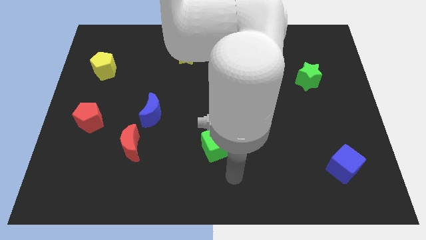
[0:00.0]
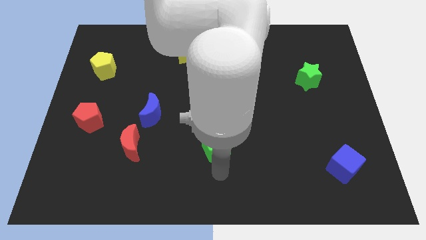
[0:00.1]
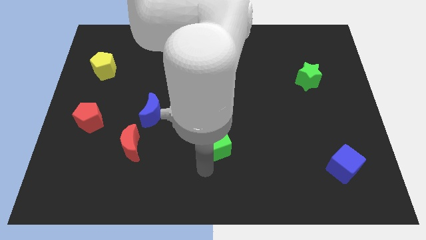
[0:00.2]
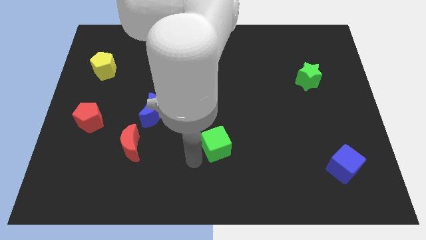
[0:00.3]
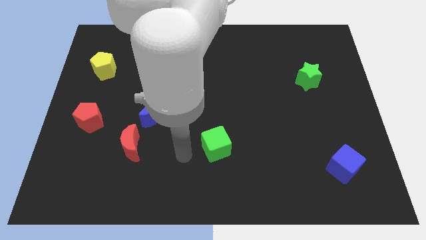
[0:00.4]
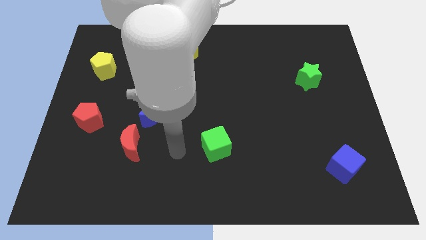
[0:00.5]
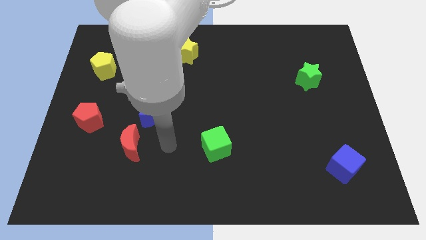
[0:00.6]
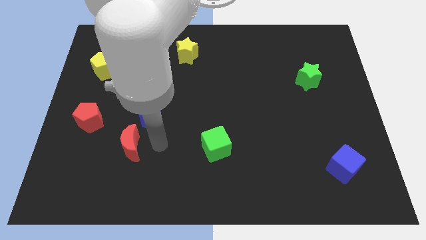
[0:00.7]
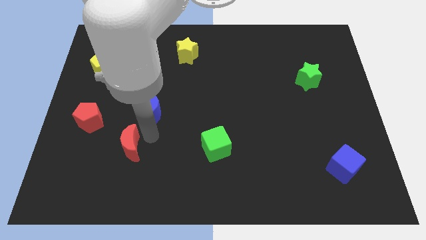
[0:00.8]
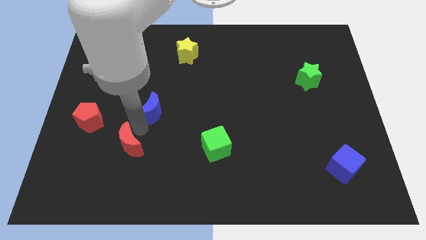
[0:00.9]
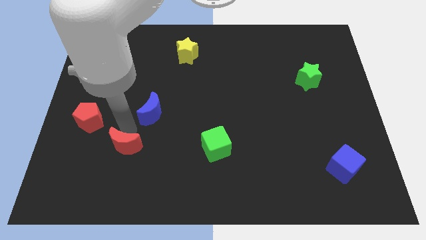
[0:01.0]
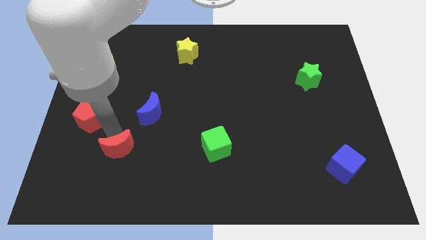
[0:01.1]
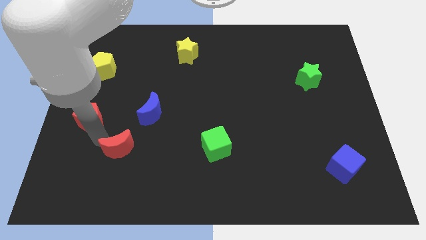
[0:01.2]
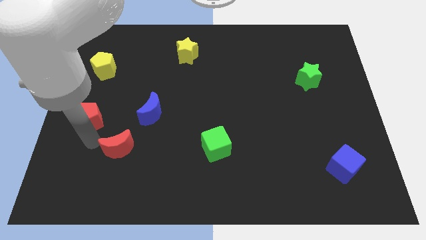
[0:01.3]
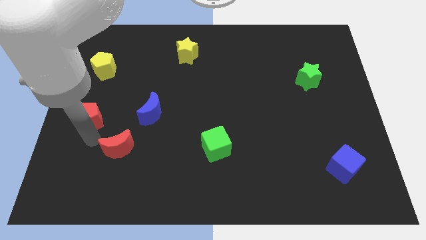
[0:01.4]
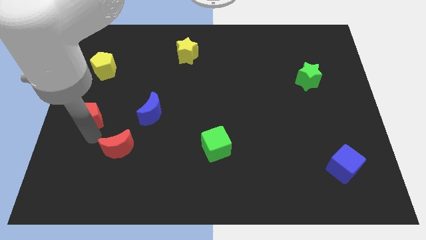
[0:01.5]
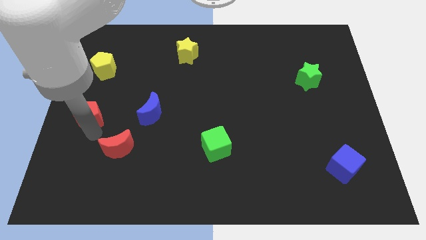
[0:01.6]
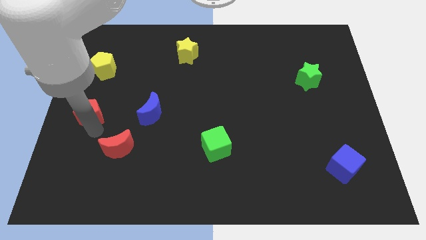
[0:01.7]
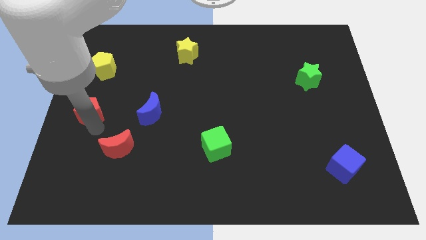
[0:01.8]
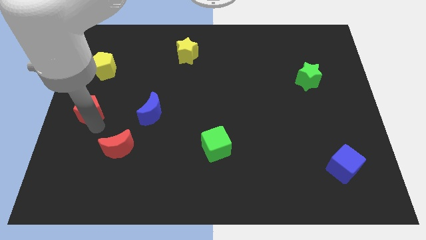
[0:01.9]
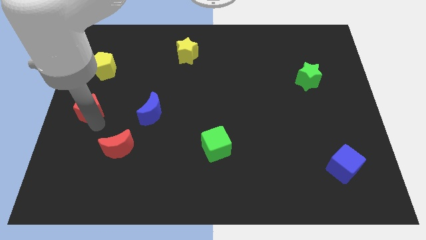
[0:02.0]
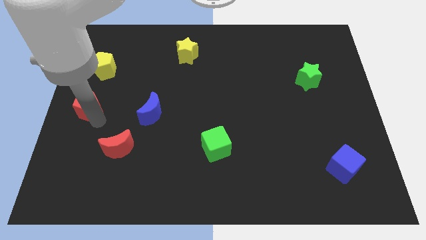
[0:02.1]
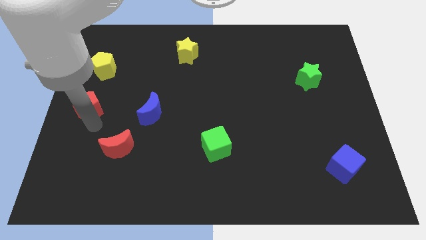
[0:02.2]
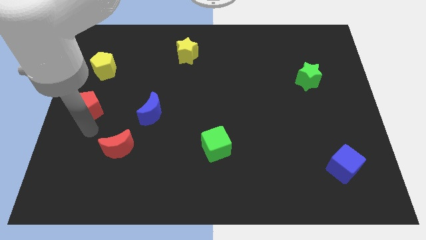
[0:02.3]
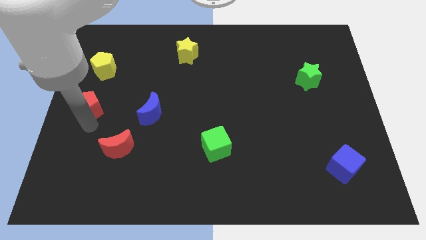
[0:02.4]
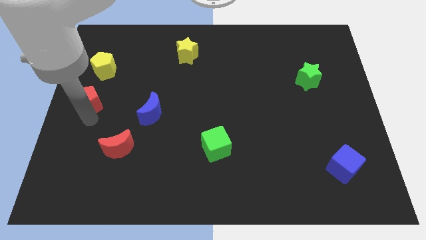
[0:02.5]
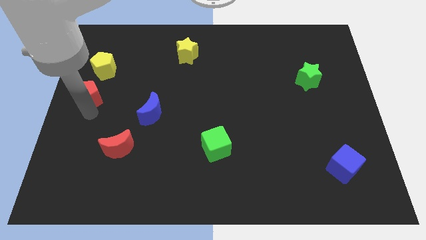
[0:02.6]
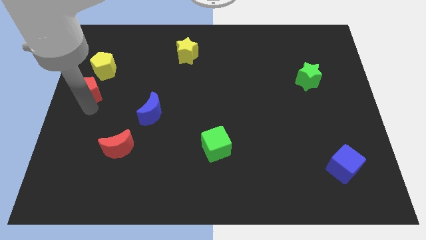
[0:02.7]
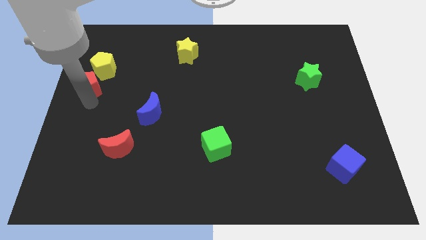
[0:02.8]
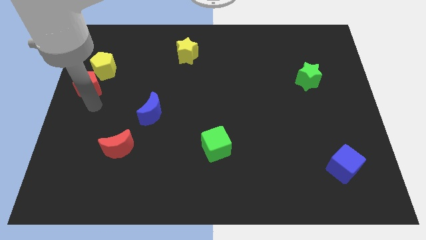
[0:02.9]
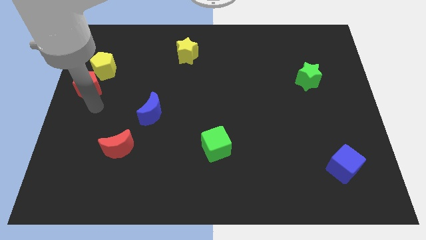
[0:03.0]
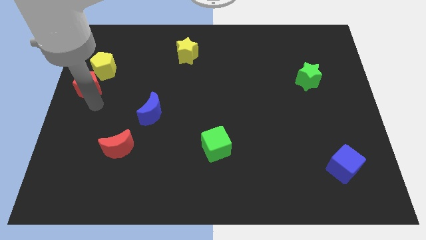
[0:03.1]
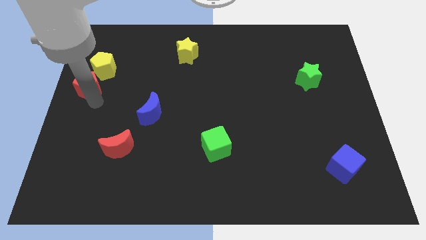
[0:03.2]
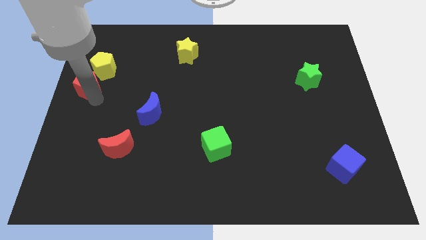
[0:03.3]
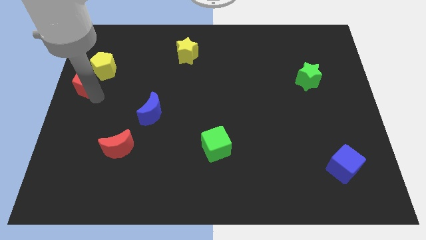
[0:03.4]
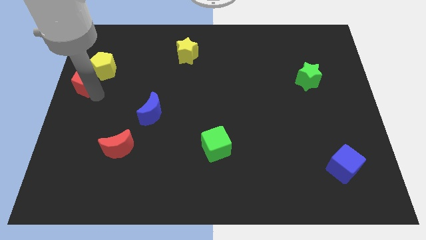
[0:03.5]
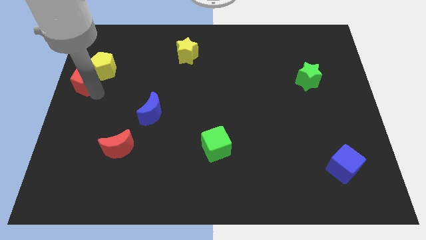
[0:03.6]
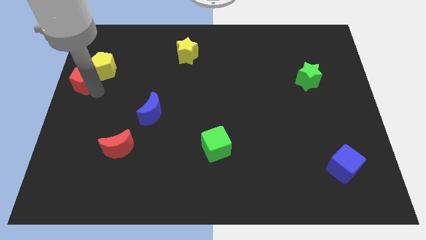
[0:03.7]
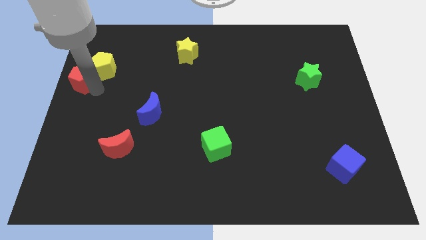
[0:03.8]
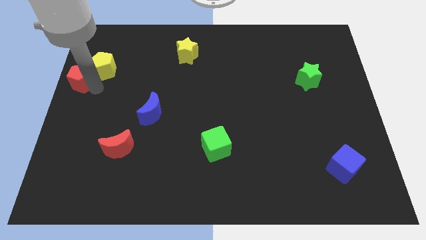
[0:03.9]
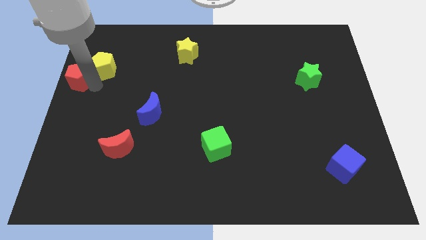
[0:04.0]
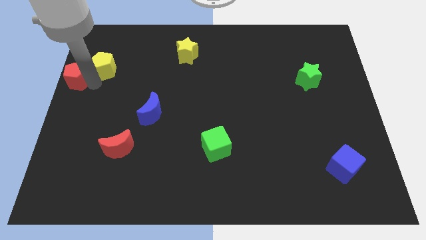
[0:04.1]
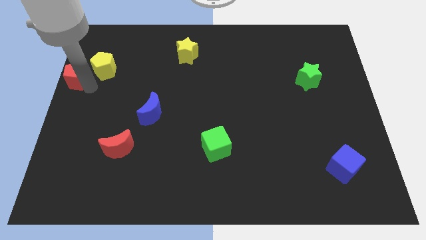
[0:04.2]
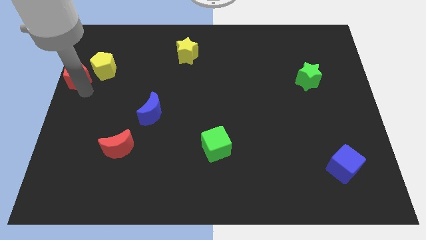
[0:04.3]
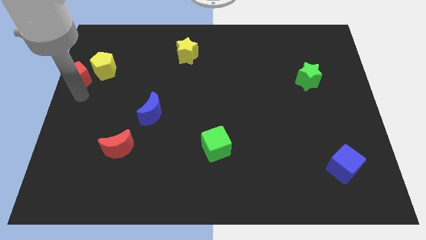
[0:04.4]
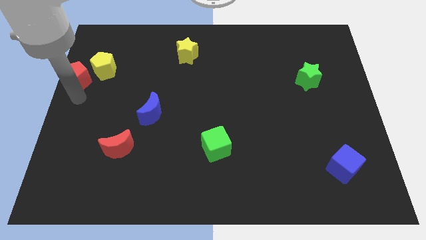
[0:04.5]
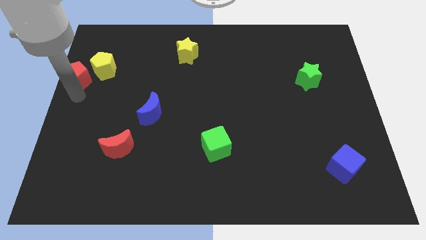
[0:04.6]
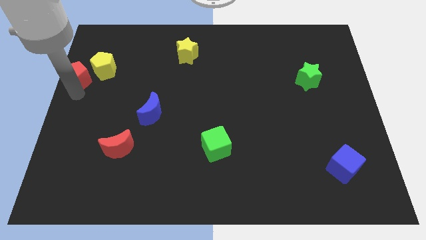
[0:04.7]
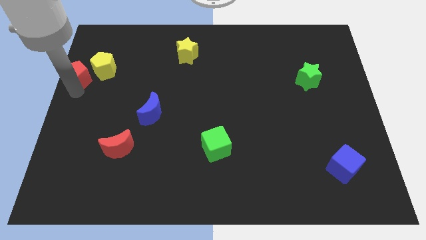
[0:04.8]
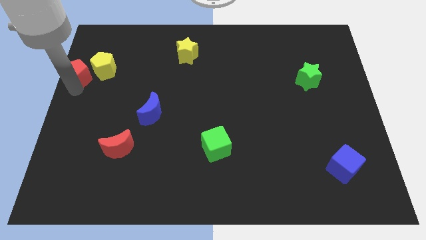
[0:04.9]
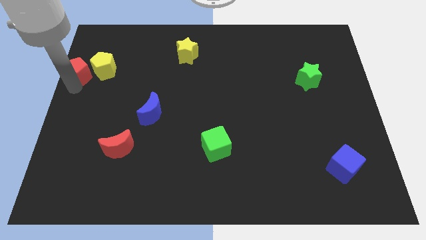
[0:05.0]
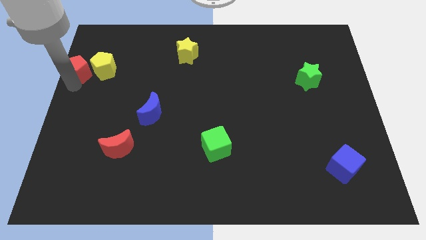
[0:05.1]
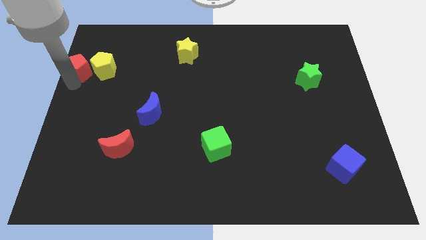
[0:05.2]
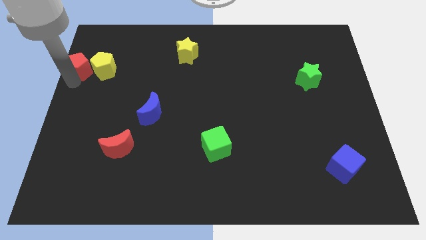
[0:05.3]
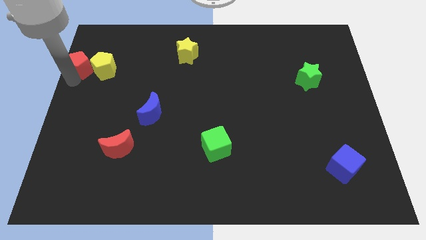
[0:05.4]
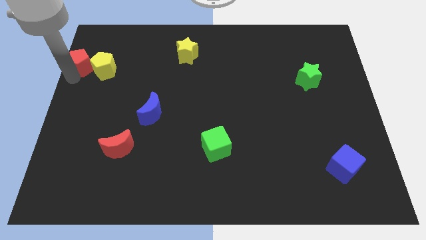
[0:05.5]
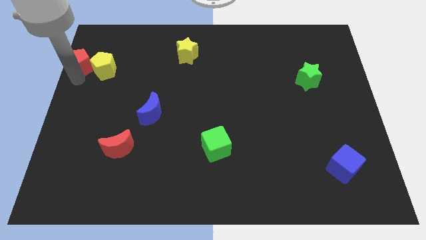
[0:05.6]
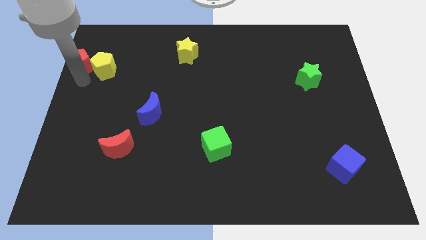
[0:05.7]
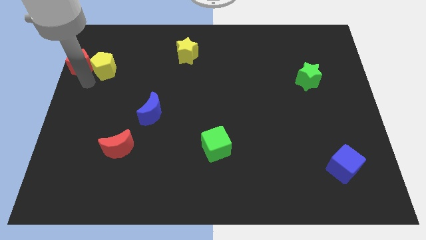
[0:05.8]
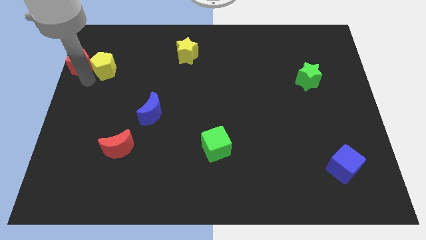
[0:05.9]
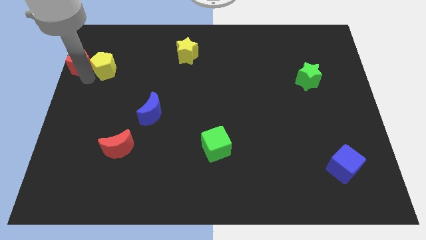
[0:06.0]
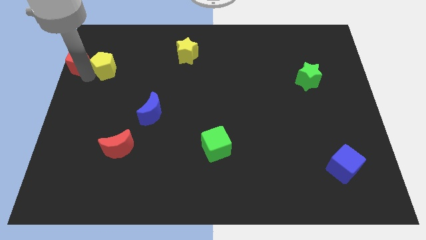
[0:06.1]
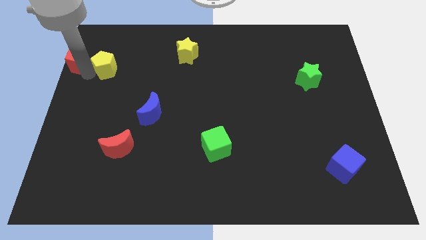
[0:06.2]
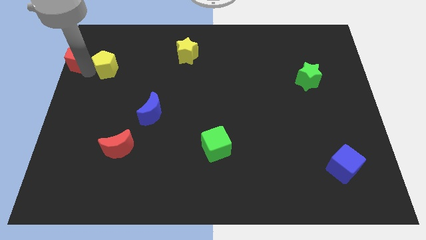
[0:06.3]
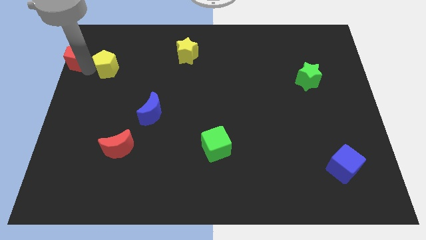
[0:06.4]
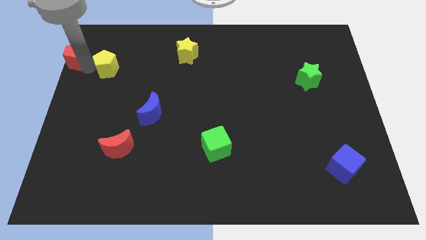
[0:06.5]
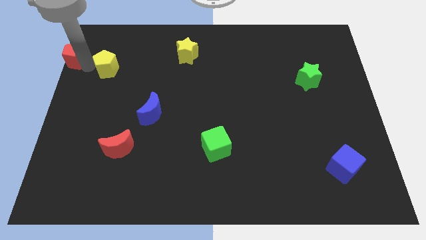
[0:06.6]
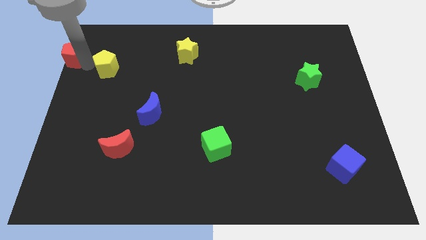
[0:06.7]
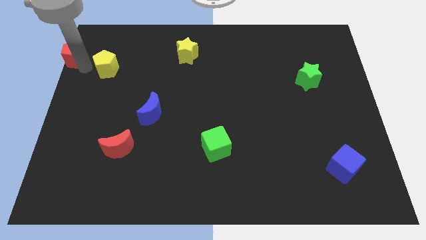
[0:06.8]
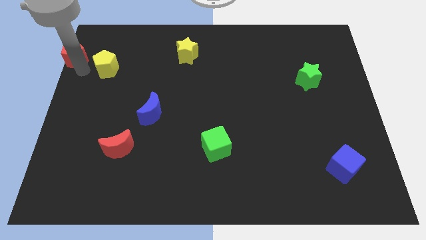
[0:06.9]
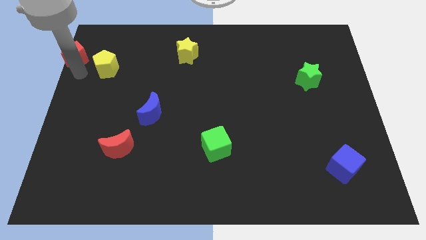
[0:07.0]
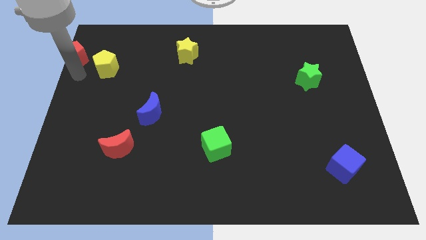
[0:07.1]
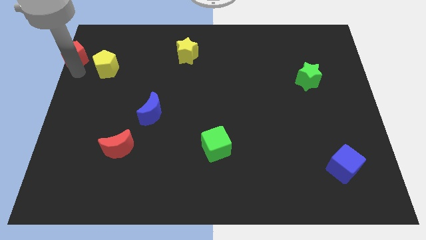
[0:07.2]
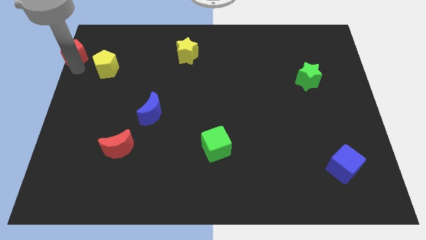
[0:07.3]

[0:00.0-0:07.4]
move the red pentagon to the top left of the board

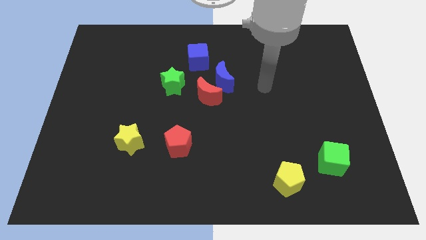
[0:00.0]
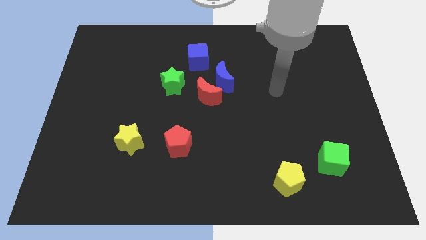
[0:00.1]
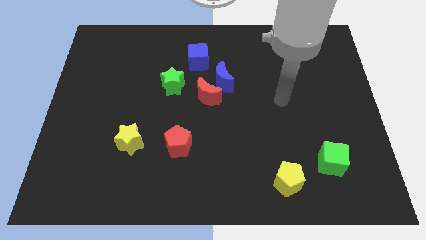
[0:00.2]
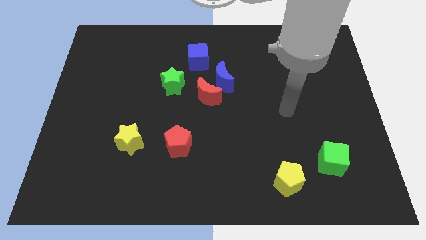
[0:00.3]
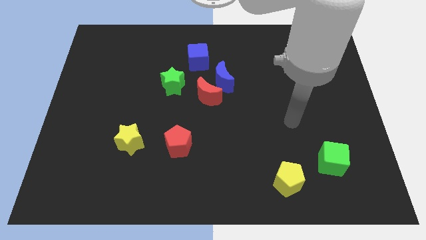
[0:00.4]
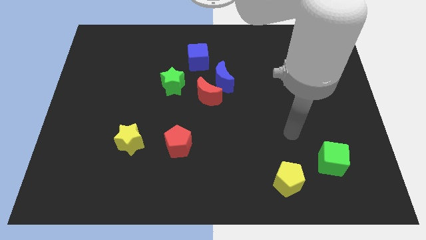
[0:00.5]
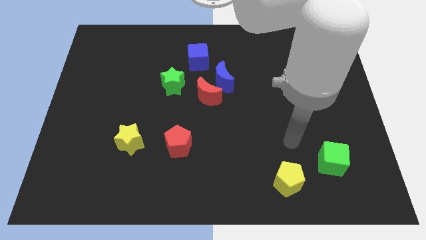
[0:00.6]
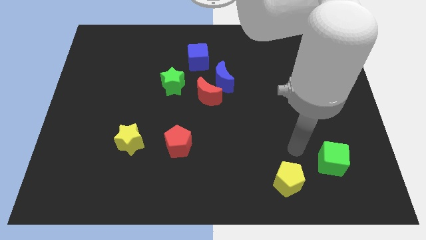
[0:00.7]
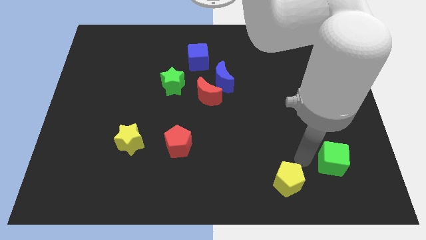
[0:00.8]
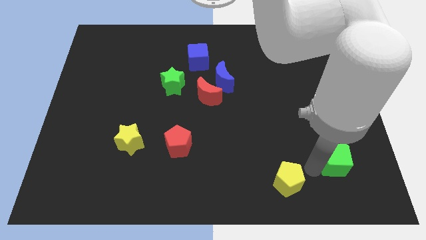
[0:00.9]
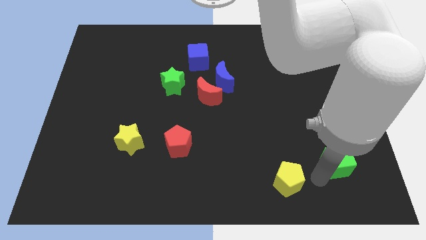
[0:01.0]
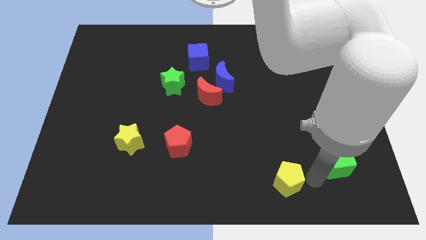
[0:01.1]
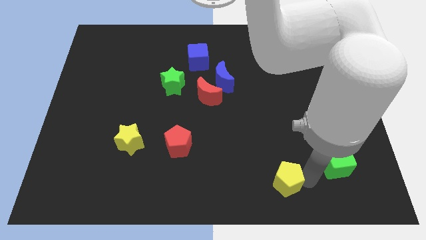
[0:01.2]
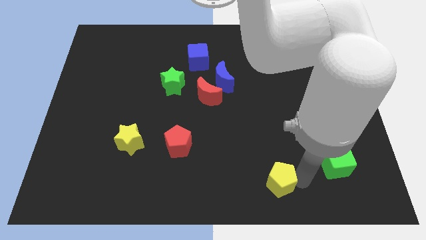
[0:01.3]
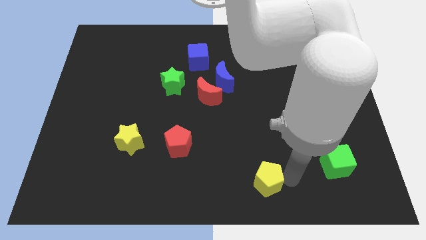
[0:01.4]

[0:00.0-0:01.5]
put the yellow pentagon to the bottom
